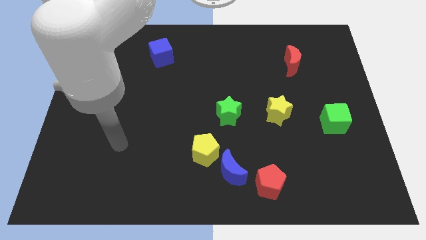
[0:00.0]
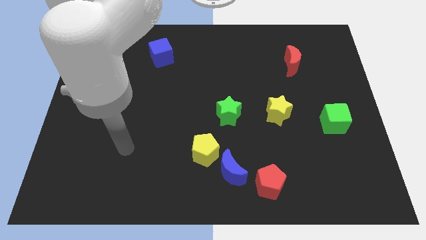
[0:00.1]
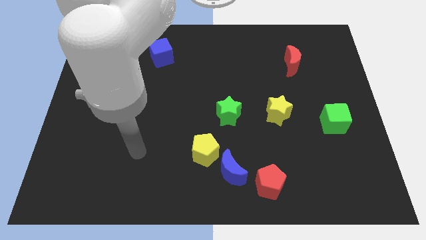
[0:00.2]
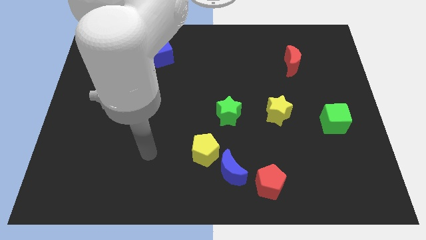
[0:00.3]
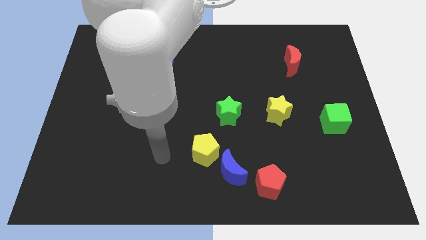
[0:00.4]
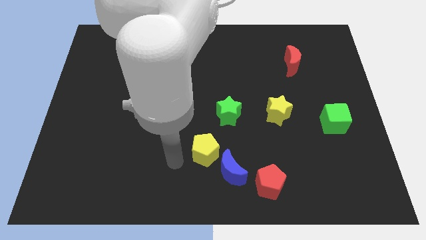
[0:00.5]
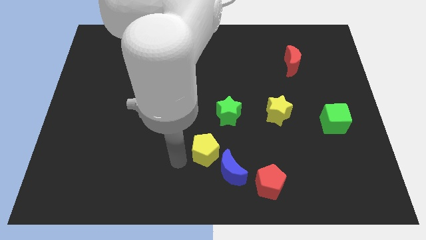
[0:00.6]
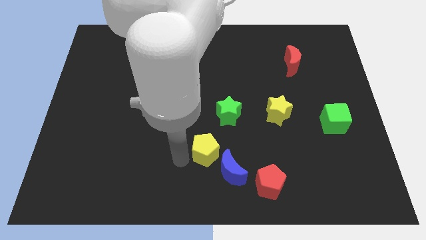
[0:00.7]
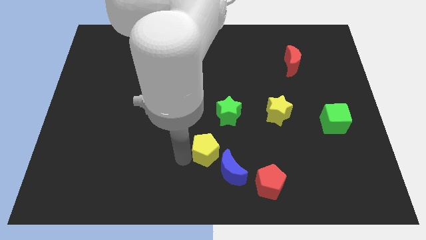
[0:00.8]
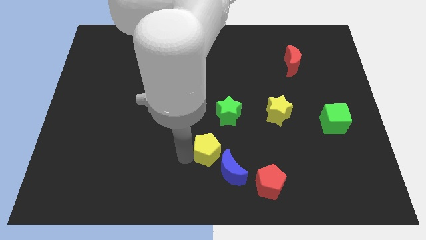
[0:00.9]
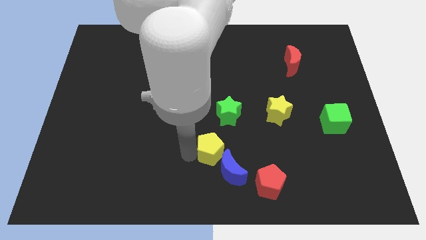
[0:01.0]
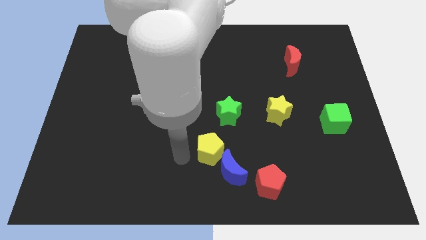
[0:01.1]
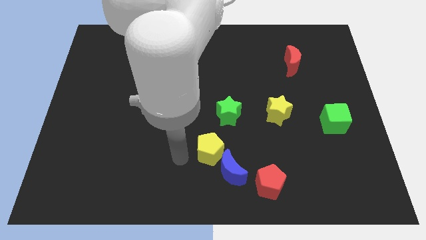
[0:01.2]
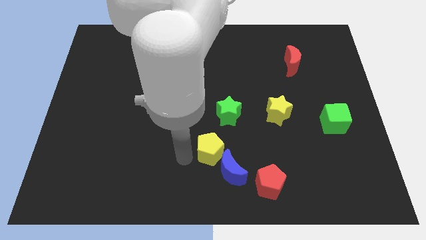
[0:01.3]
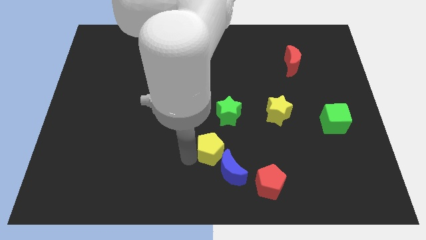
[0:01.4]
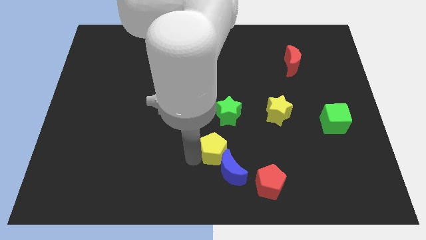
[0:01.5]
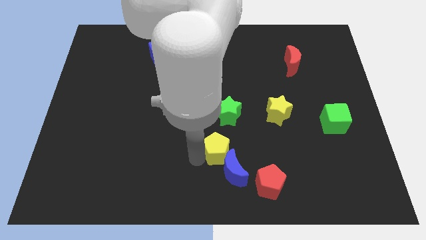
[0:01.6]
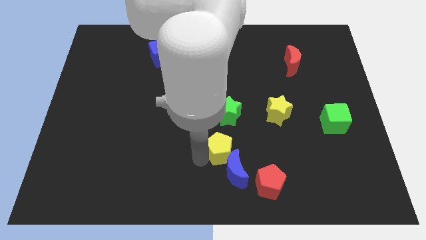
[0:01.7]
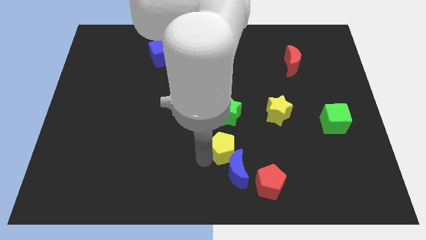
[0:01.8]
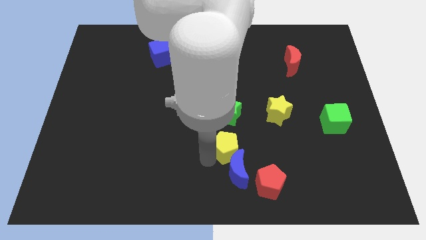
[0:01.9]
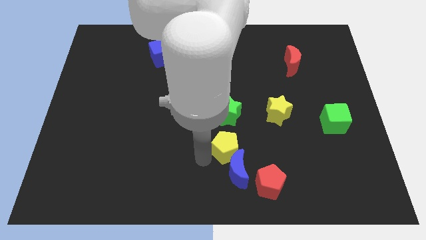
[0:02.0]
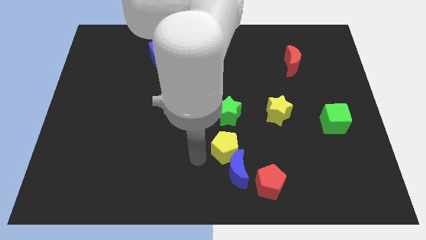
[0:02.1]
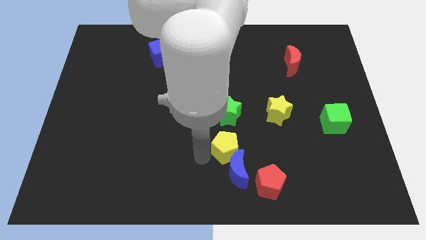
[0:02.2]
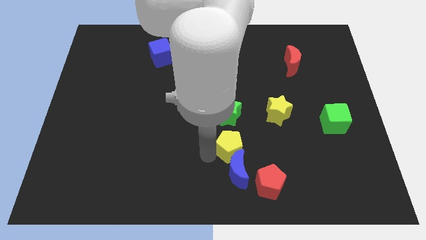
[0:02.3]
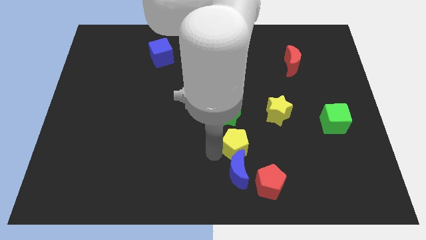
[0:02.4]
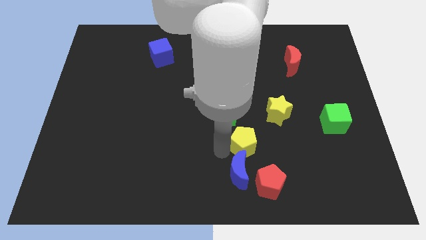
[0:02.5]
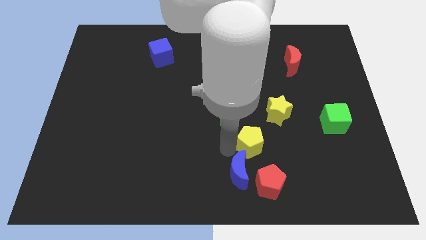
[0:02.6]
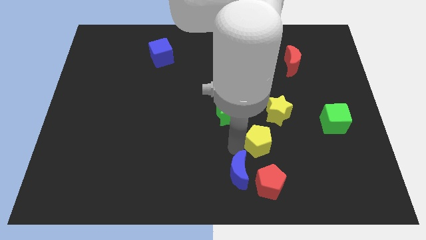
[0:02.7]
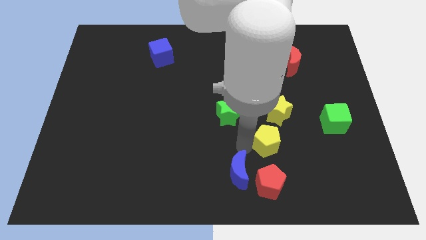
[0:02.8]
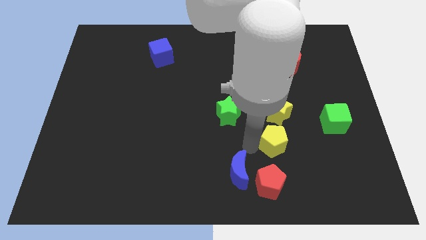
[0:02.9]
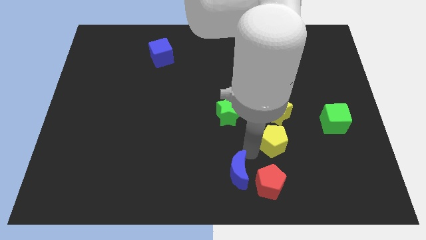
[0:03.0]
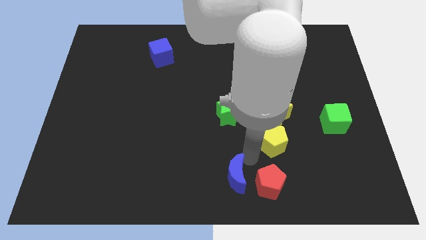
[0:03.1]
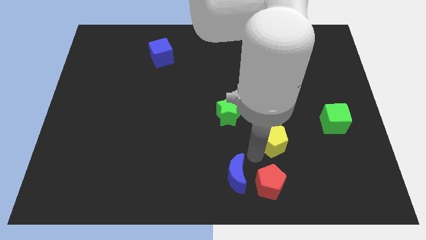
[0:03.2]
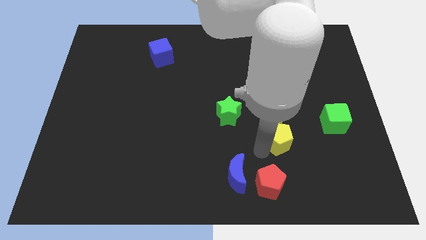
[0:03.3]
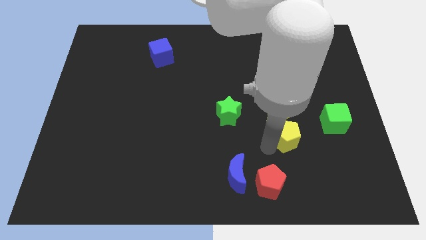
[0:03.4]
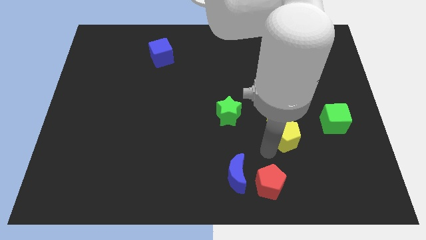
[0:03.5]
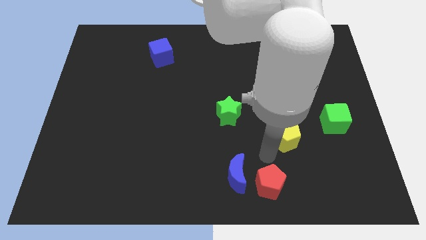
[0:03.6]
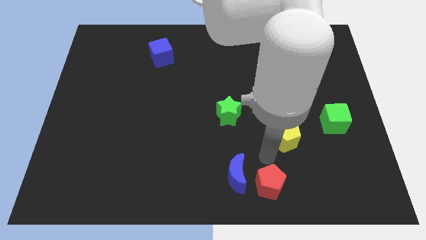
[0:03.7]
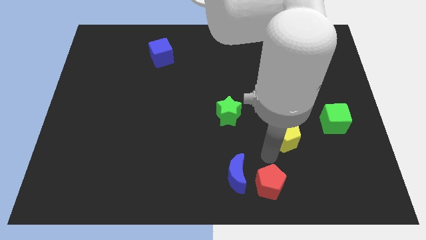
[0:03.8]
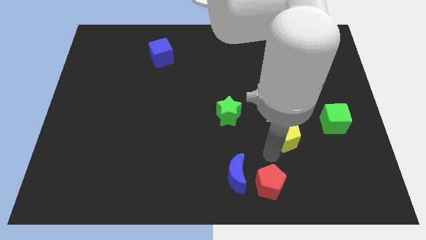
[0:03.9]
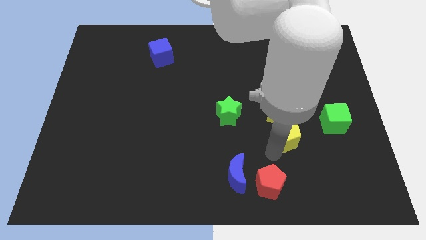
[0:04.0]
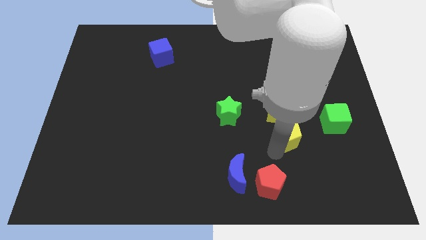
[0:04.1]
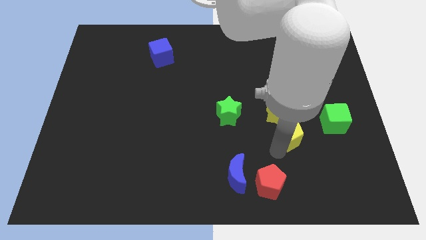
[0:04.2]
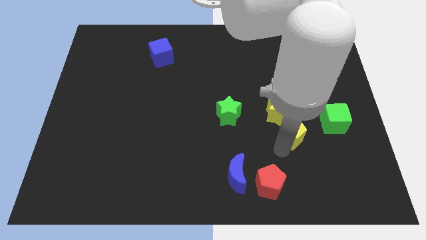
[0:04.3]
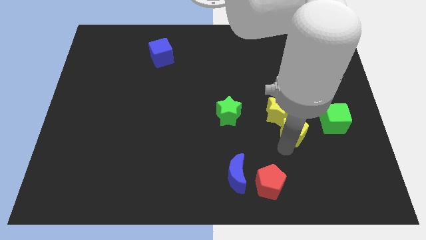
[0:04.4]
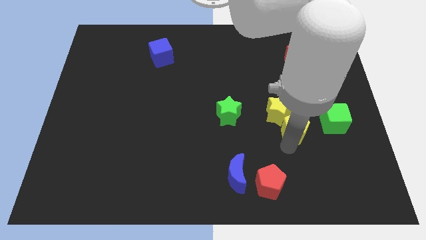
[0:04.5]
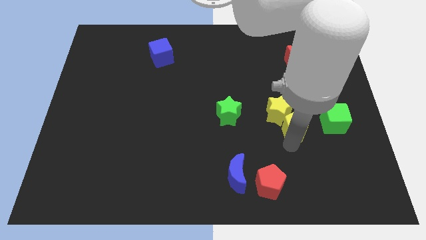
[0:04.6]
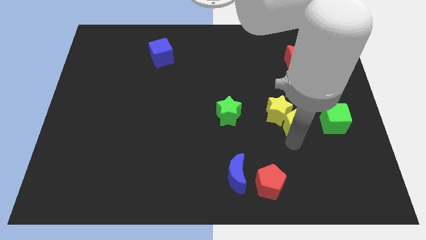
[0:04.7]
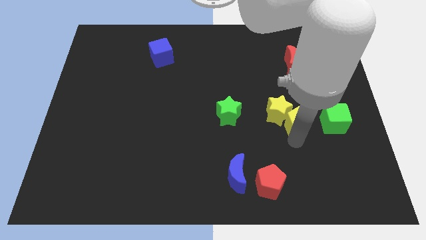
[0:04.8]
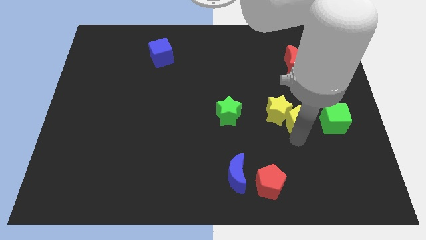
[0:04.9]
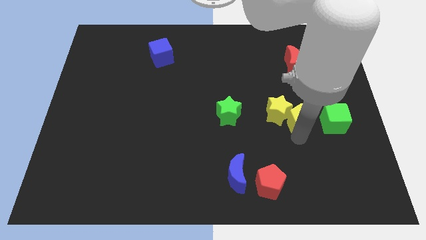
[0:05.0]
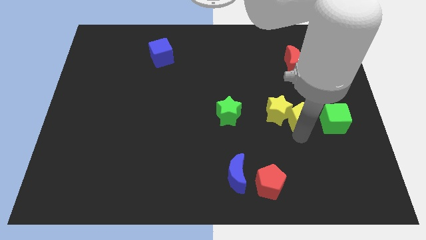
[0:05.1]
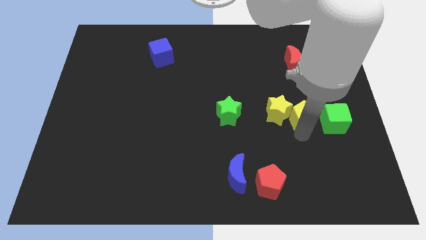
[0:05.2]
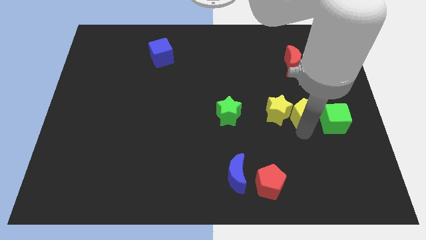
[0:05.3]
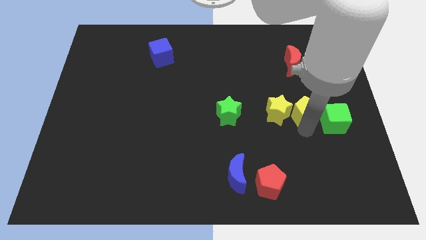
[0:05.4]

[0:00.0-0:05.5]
move the yellow pentagon to the top right of the yellow star

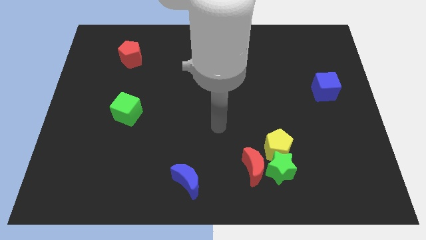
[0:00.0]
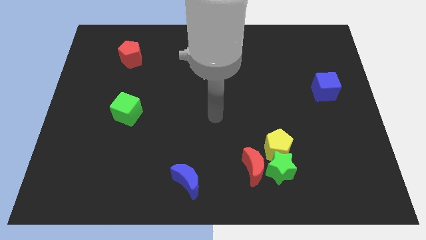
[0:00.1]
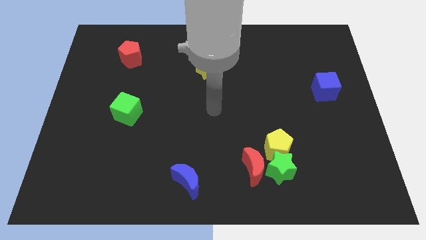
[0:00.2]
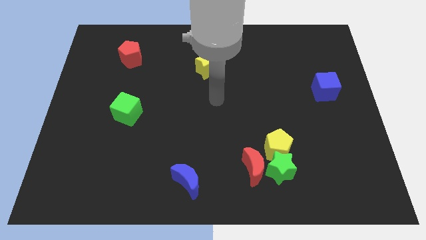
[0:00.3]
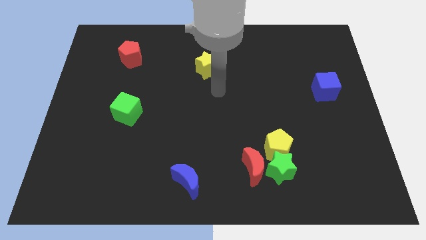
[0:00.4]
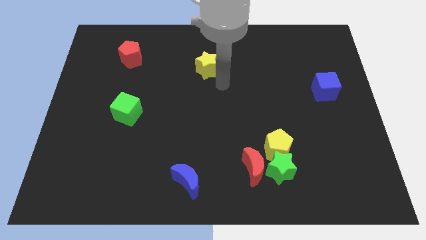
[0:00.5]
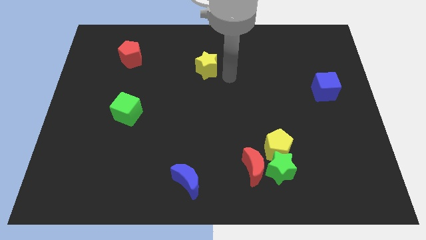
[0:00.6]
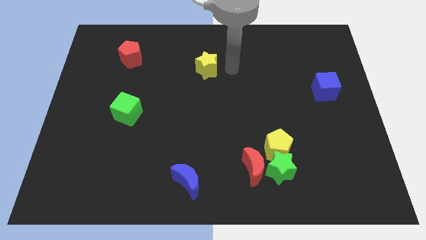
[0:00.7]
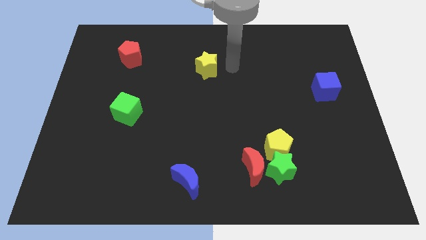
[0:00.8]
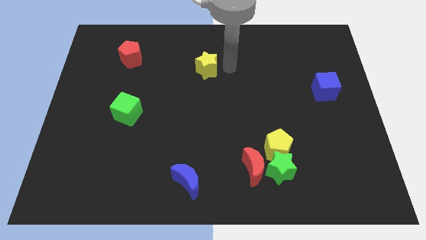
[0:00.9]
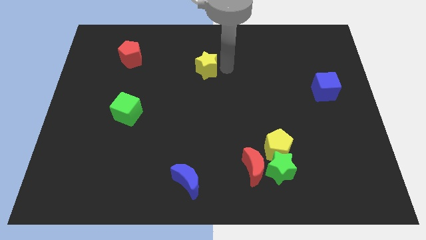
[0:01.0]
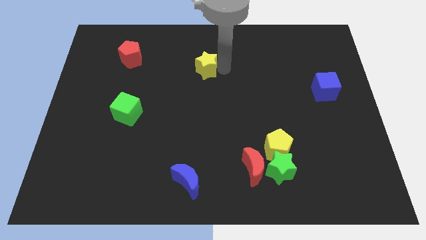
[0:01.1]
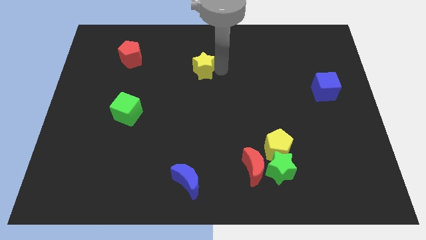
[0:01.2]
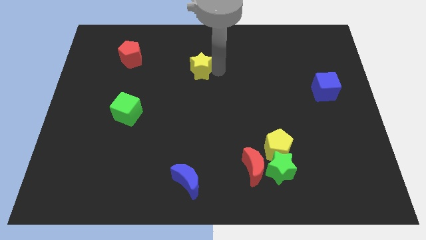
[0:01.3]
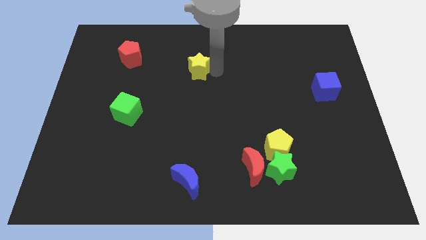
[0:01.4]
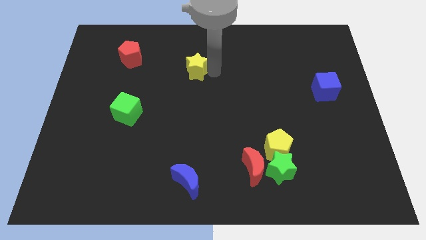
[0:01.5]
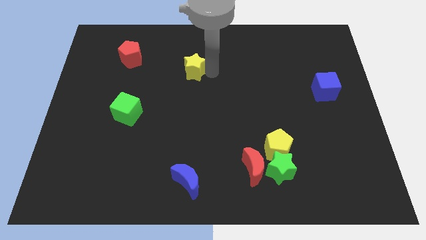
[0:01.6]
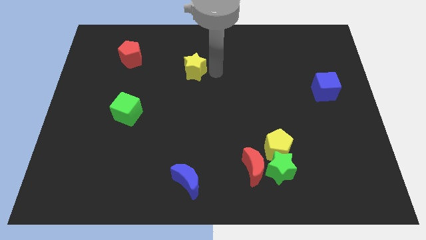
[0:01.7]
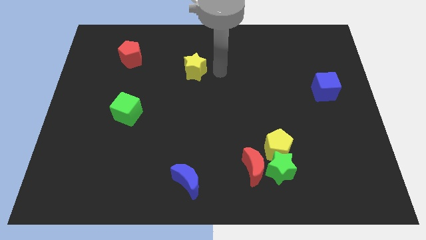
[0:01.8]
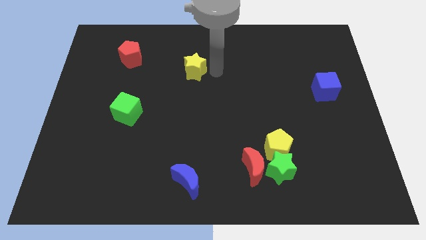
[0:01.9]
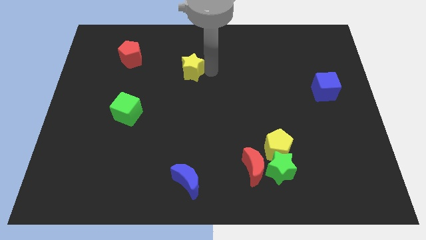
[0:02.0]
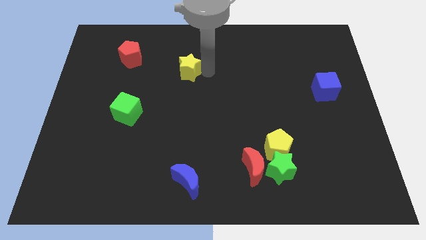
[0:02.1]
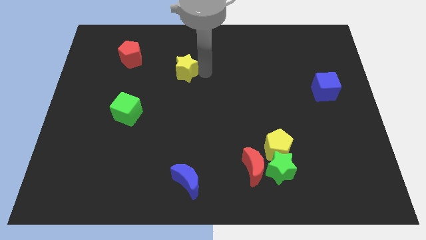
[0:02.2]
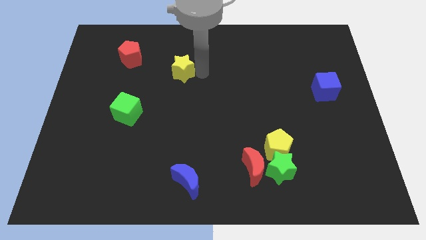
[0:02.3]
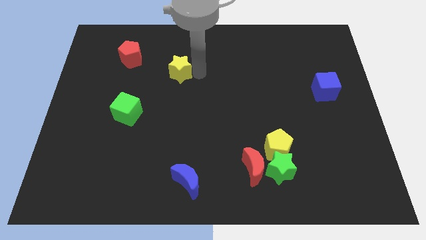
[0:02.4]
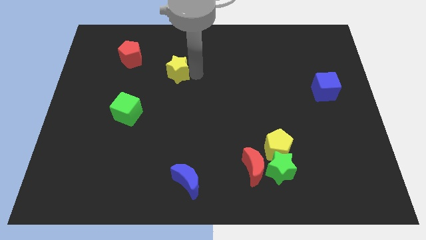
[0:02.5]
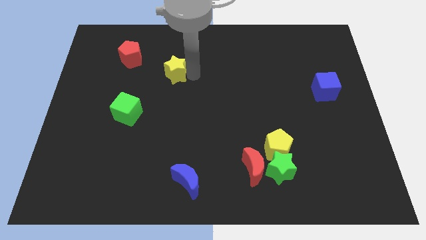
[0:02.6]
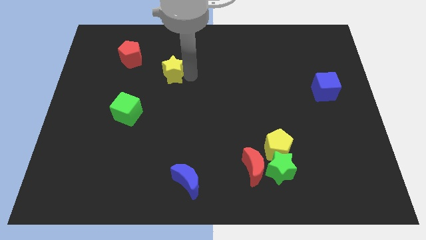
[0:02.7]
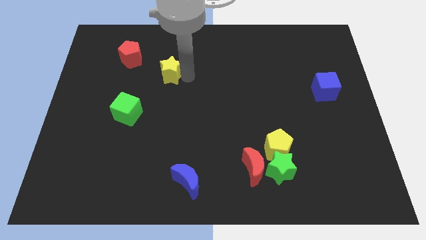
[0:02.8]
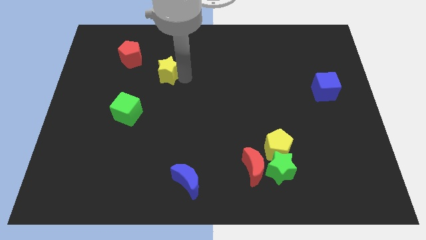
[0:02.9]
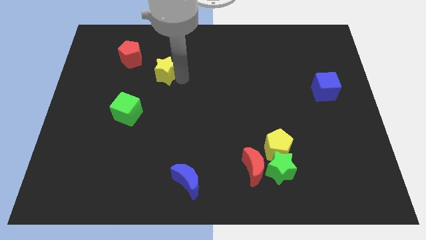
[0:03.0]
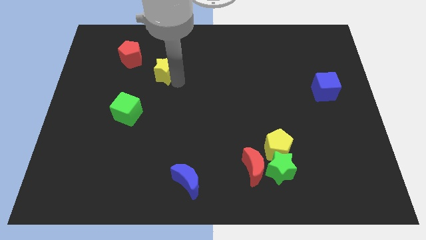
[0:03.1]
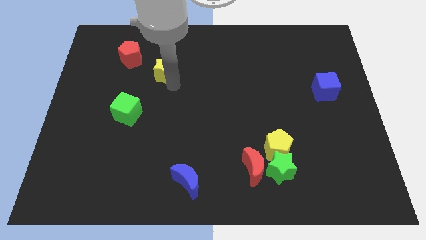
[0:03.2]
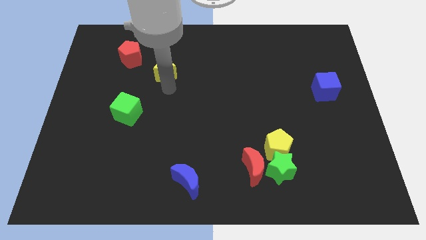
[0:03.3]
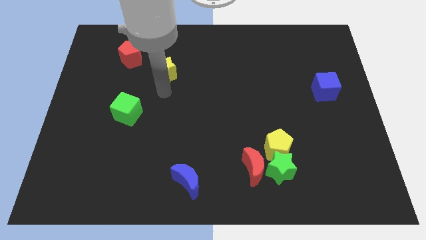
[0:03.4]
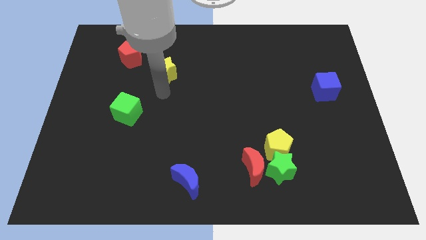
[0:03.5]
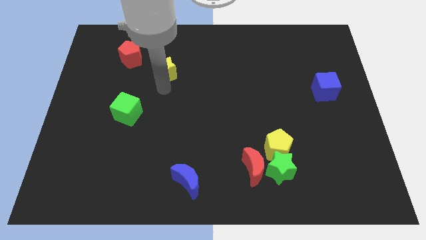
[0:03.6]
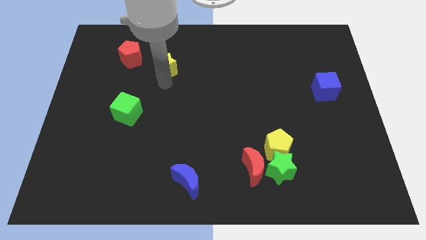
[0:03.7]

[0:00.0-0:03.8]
move the yellow star to the right side of the red pentagon
